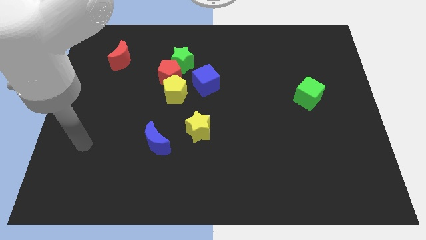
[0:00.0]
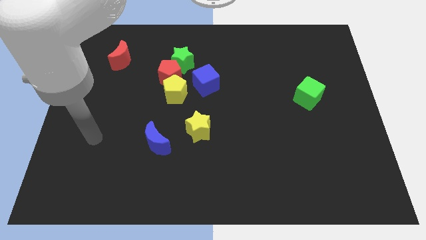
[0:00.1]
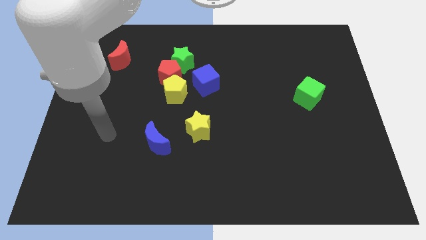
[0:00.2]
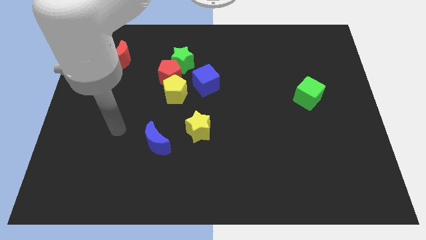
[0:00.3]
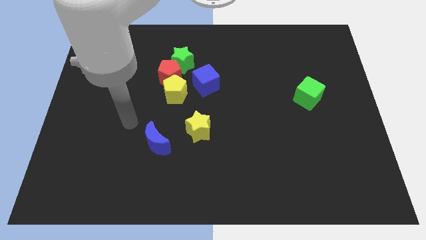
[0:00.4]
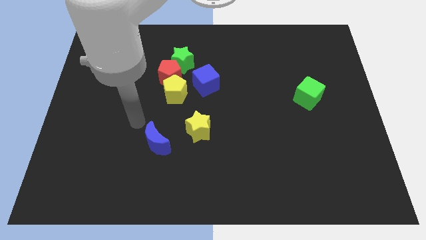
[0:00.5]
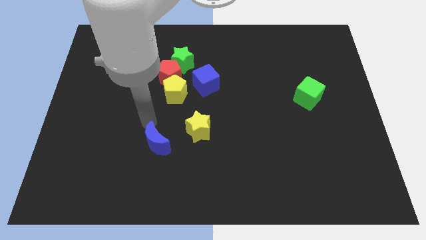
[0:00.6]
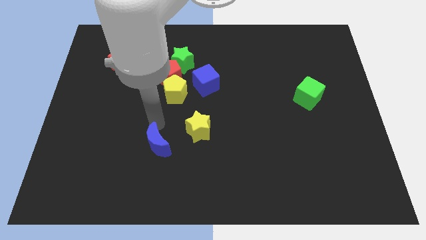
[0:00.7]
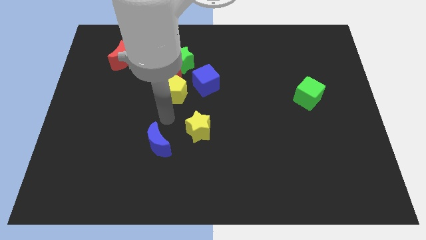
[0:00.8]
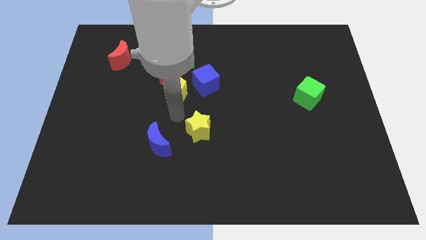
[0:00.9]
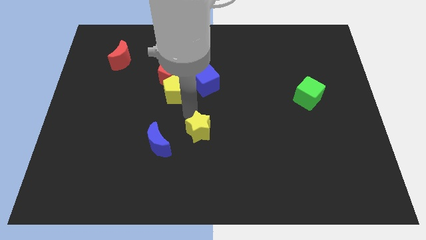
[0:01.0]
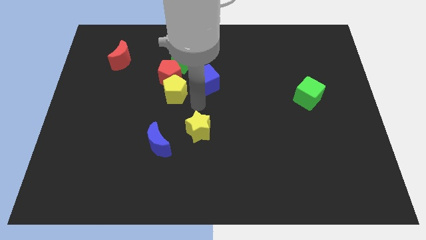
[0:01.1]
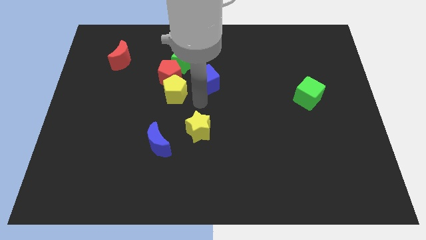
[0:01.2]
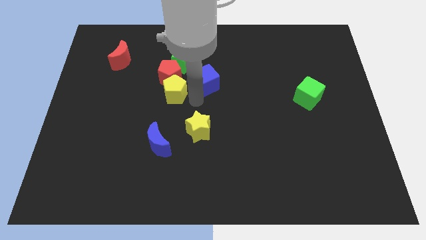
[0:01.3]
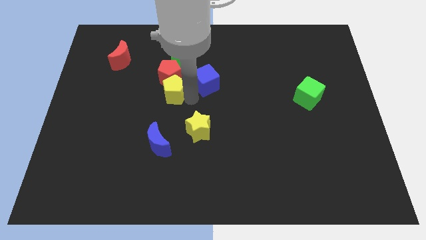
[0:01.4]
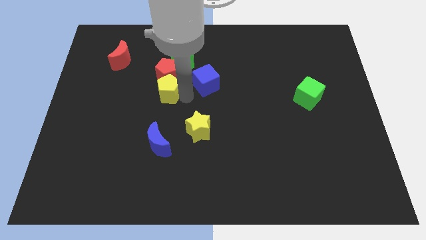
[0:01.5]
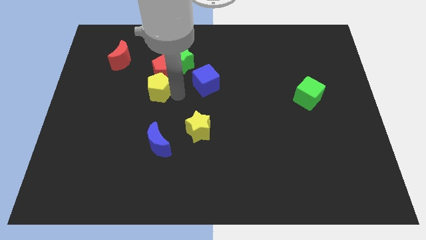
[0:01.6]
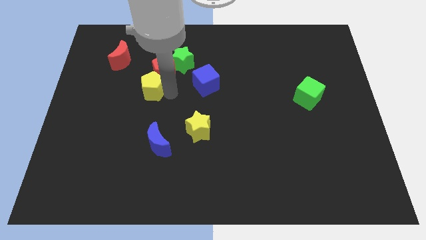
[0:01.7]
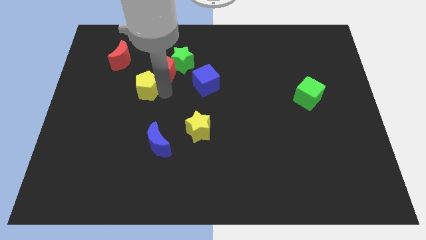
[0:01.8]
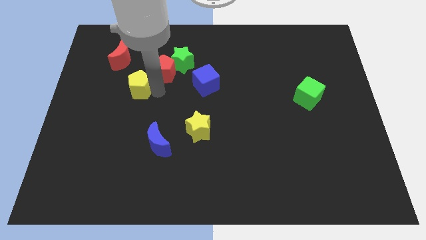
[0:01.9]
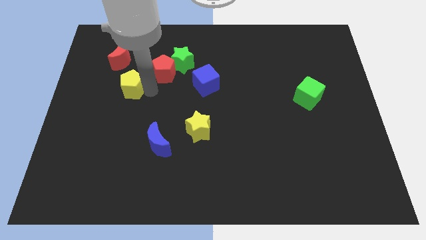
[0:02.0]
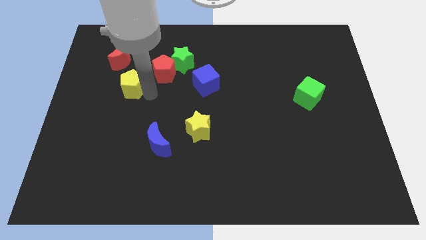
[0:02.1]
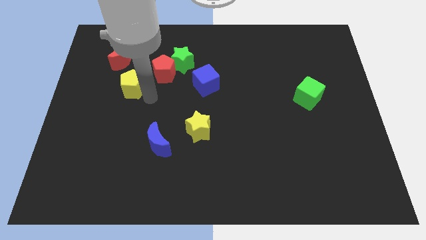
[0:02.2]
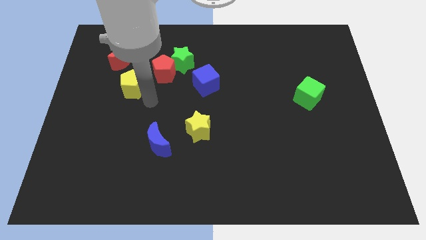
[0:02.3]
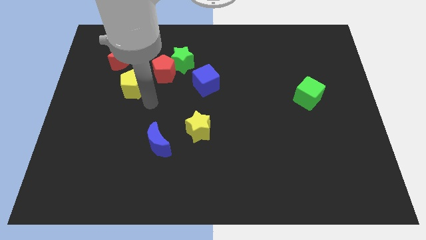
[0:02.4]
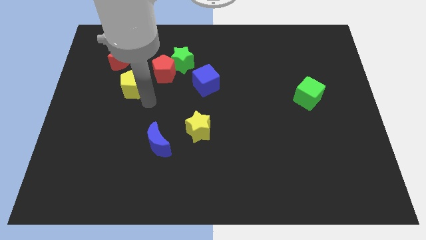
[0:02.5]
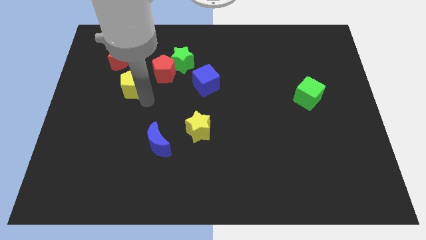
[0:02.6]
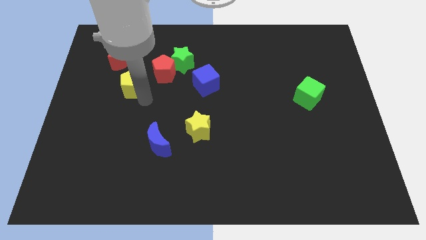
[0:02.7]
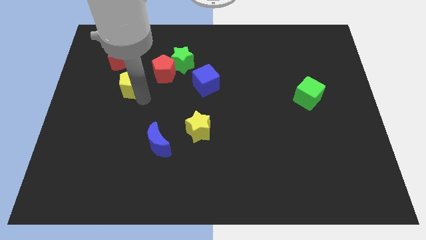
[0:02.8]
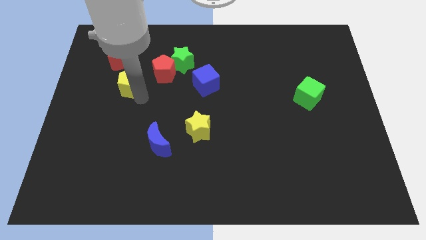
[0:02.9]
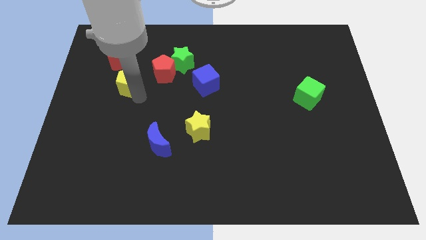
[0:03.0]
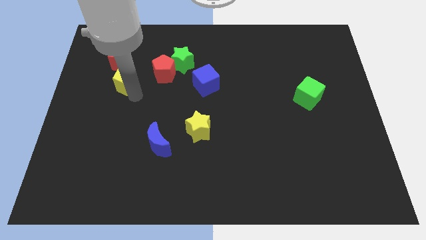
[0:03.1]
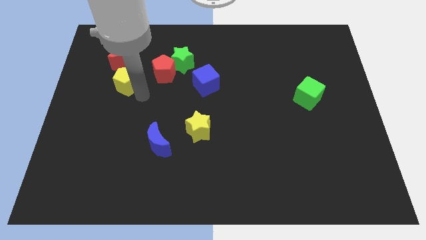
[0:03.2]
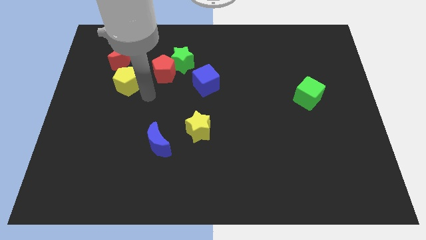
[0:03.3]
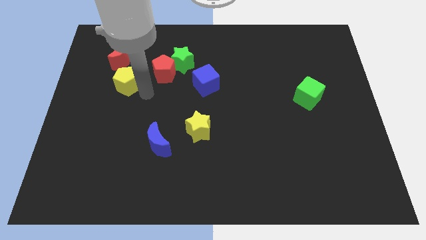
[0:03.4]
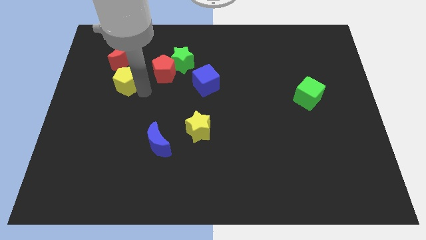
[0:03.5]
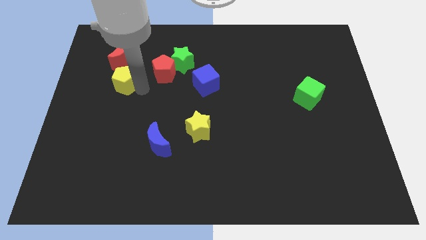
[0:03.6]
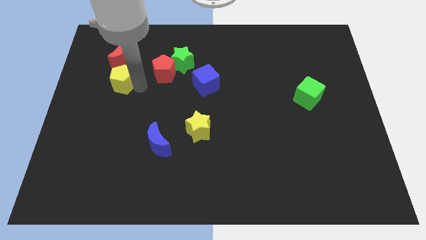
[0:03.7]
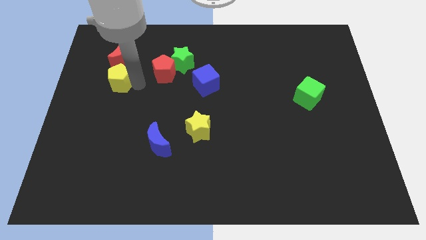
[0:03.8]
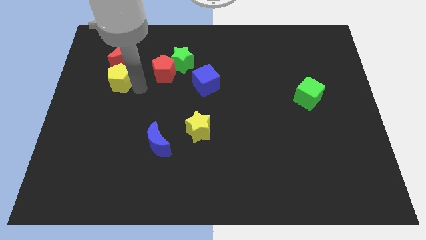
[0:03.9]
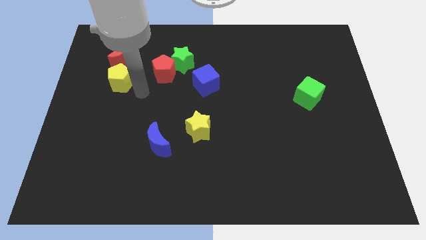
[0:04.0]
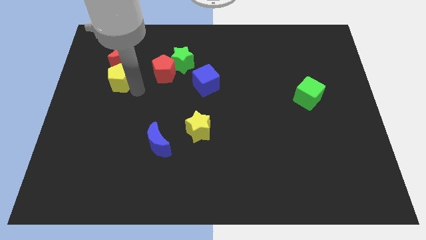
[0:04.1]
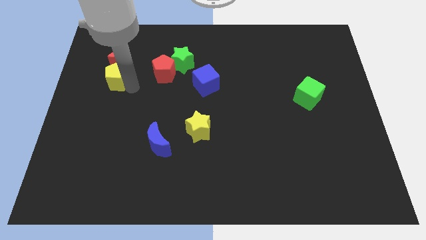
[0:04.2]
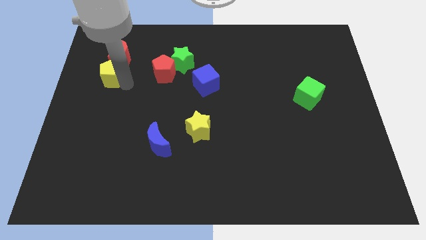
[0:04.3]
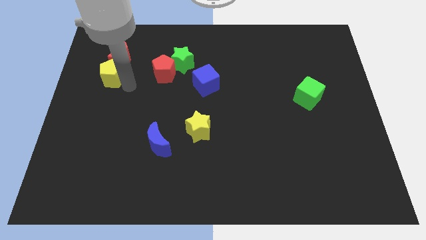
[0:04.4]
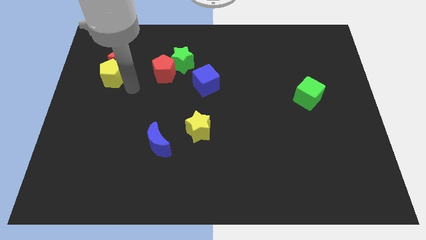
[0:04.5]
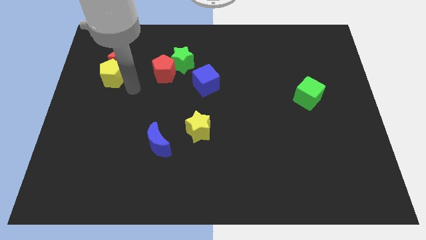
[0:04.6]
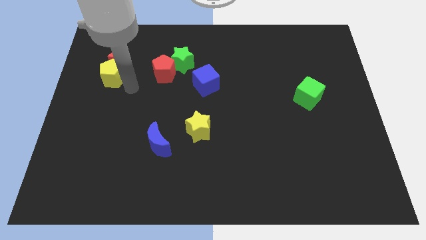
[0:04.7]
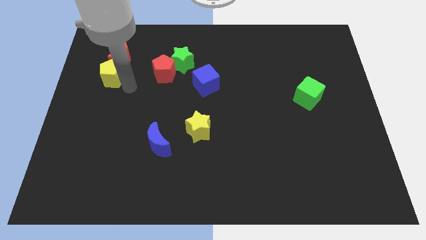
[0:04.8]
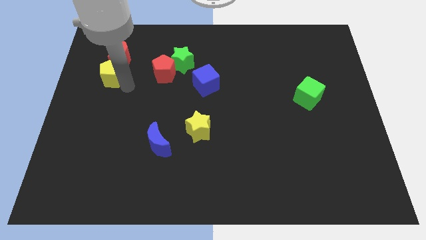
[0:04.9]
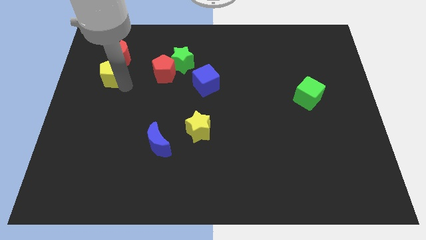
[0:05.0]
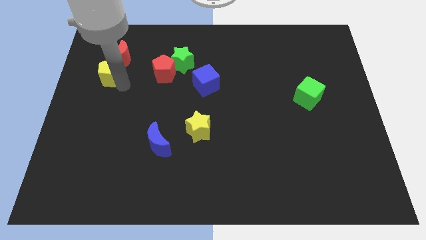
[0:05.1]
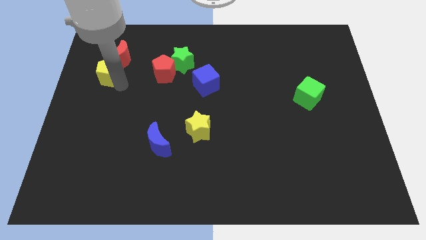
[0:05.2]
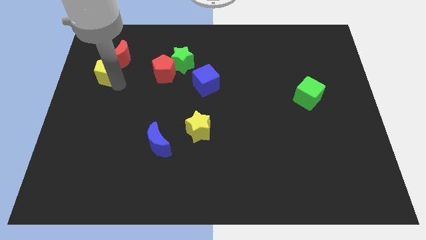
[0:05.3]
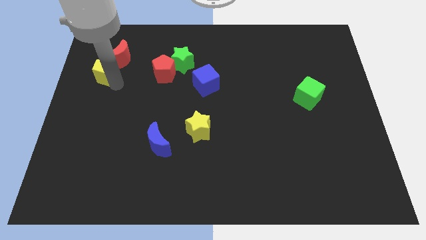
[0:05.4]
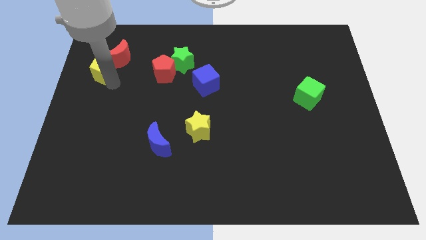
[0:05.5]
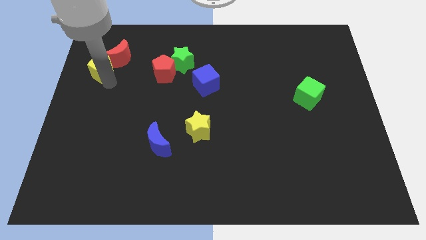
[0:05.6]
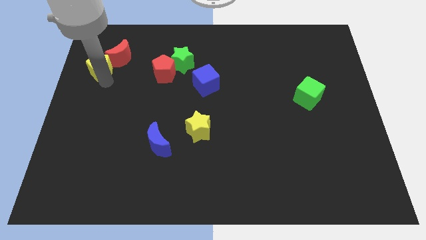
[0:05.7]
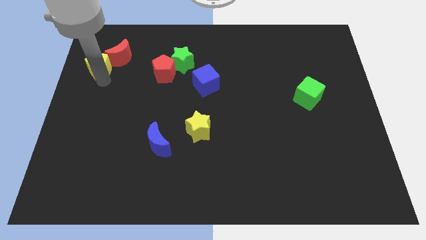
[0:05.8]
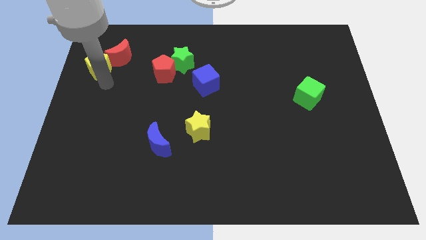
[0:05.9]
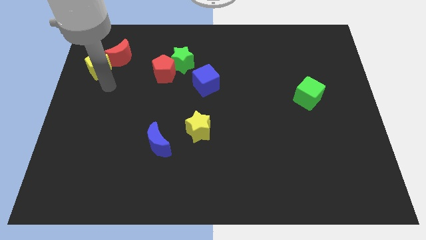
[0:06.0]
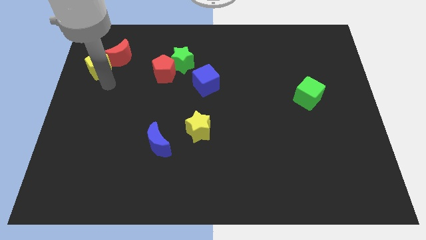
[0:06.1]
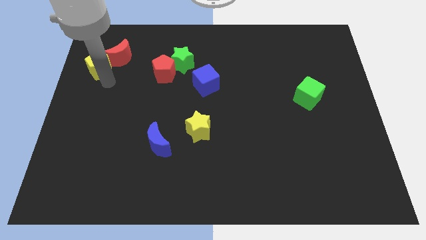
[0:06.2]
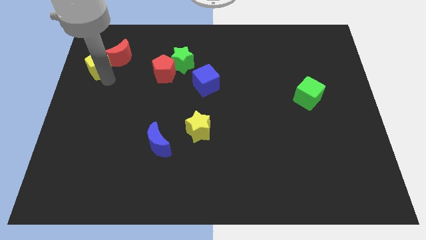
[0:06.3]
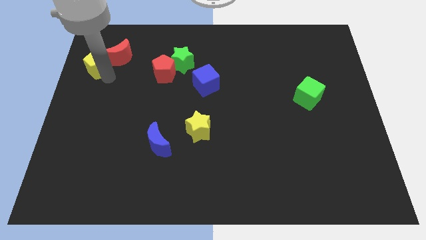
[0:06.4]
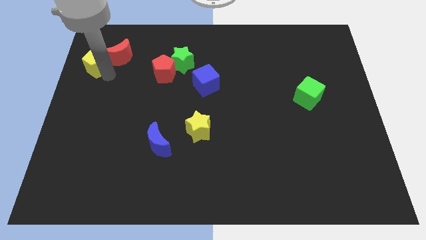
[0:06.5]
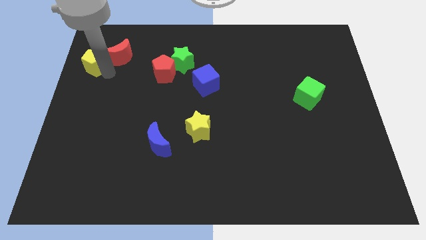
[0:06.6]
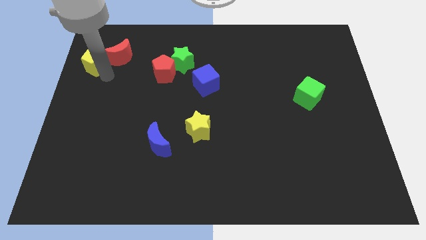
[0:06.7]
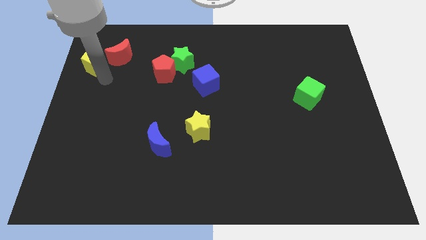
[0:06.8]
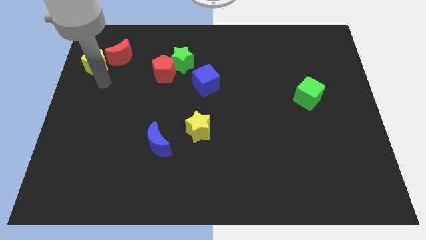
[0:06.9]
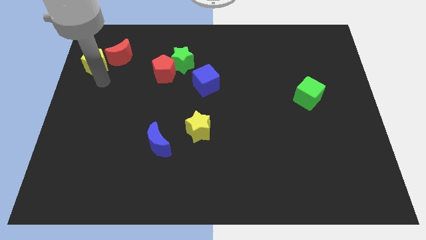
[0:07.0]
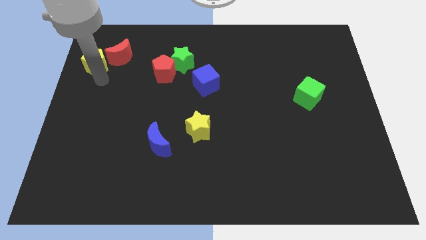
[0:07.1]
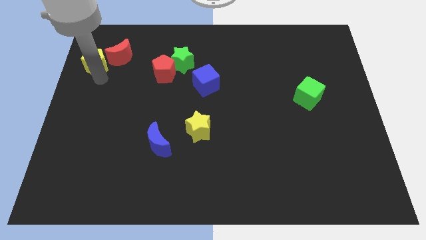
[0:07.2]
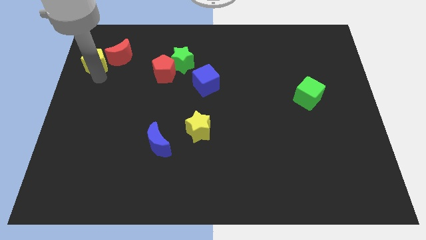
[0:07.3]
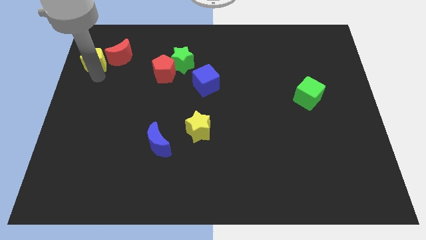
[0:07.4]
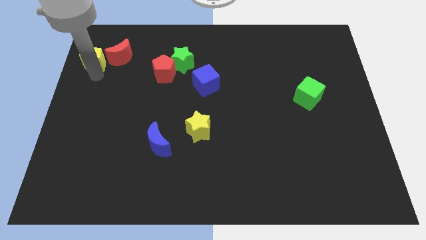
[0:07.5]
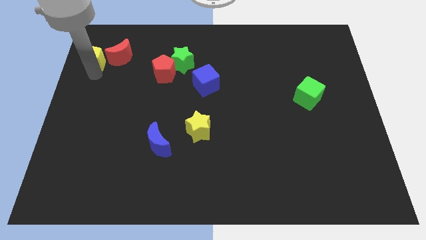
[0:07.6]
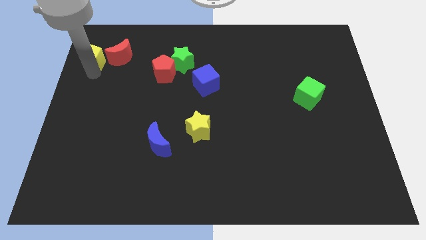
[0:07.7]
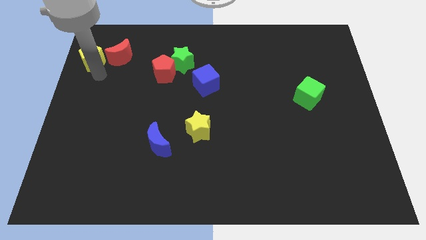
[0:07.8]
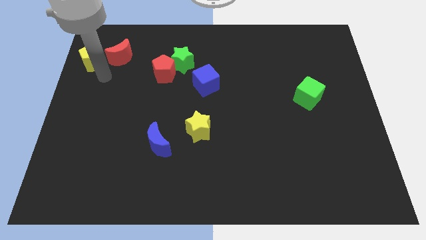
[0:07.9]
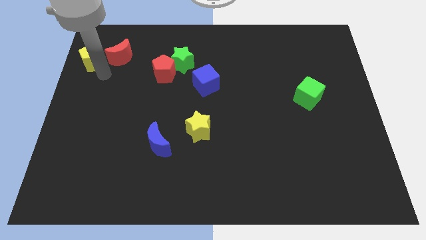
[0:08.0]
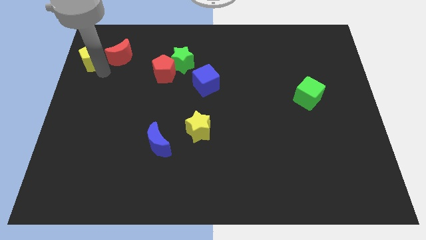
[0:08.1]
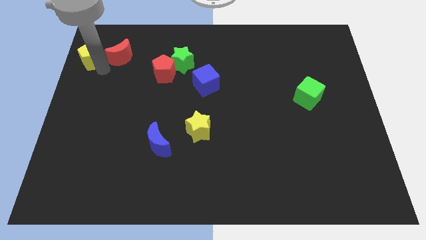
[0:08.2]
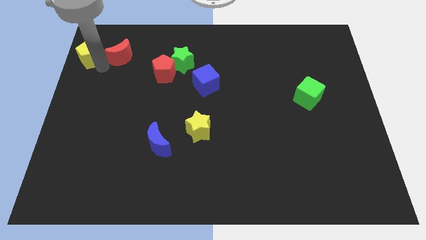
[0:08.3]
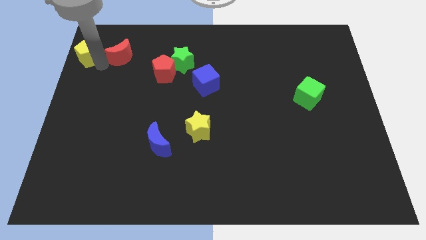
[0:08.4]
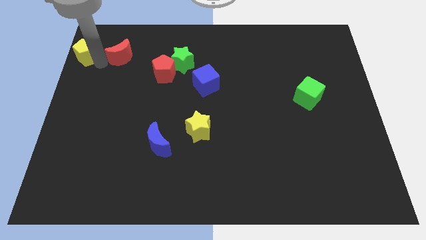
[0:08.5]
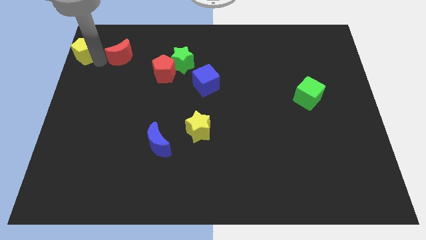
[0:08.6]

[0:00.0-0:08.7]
slide the yellow pentagon to the upper left corner

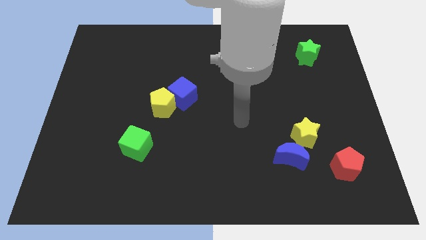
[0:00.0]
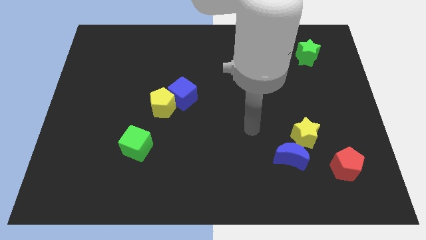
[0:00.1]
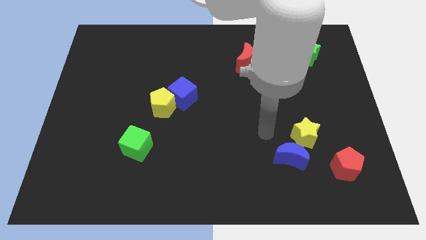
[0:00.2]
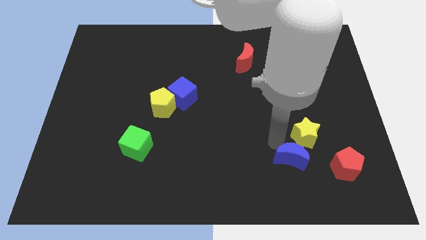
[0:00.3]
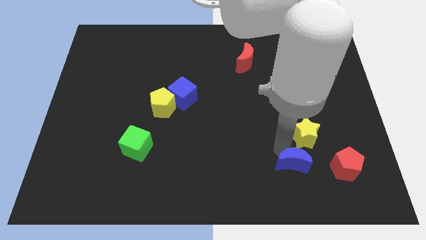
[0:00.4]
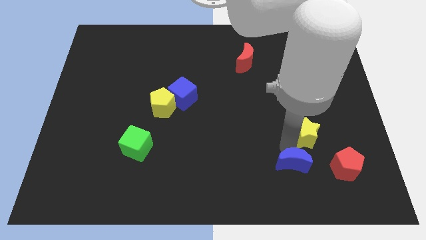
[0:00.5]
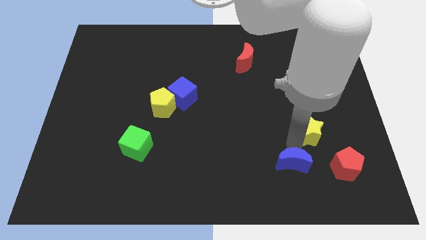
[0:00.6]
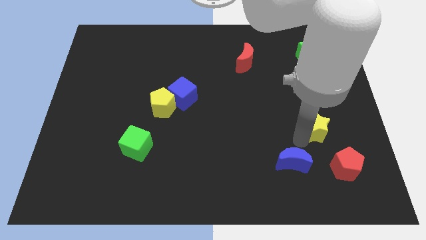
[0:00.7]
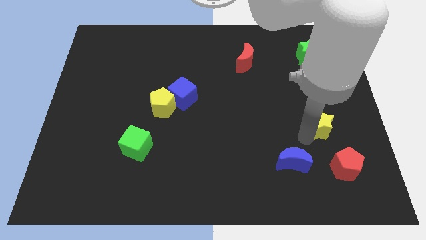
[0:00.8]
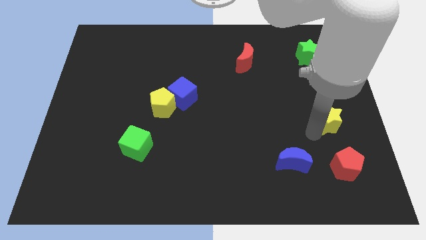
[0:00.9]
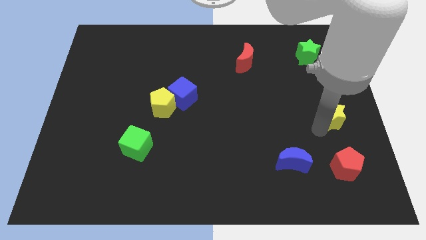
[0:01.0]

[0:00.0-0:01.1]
push the yellow star to the right side of the board
